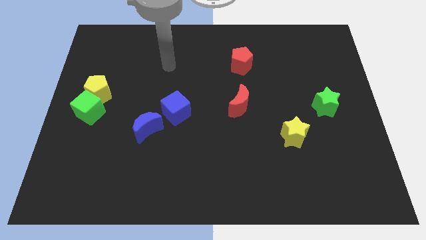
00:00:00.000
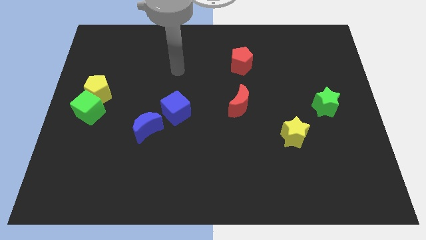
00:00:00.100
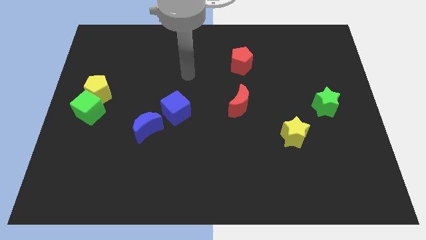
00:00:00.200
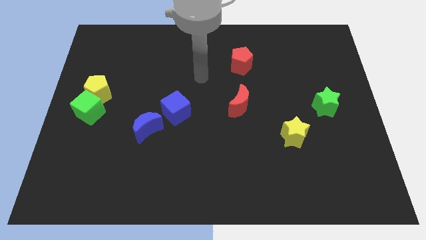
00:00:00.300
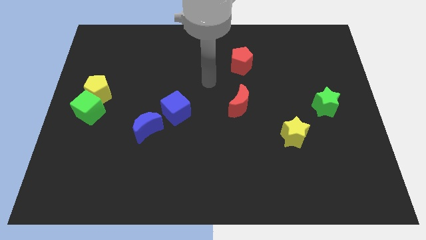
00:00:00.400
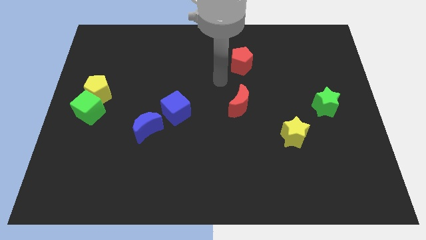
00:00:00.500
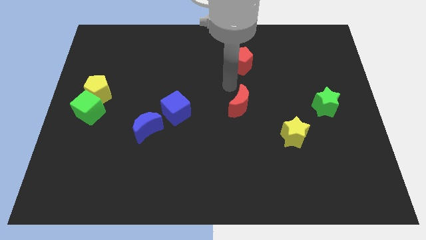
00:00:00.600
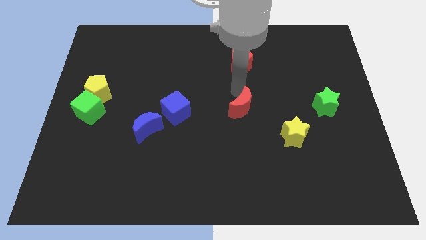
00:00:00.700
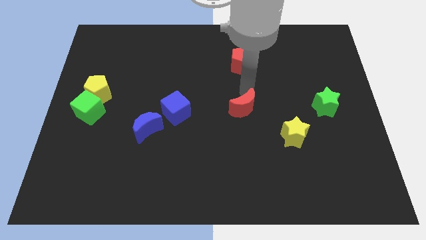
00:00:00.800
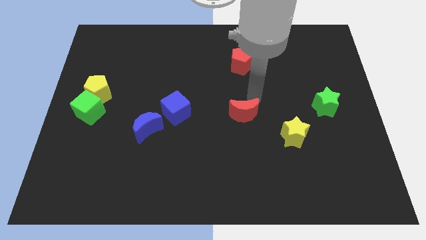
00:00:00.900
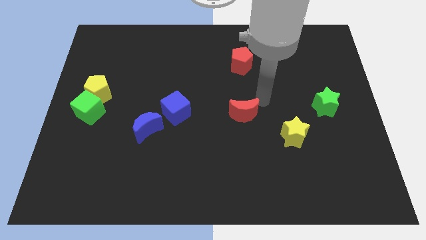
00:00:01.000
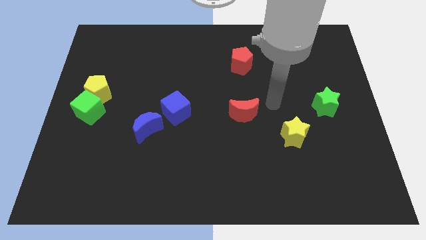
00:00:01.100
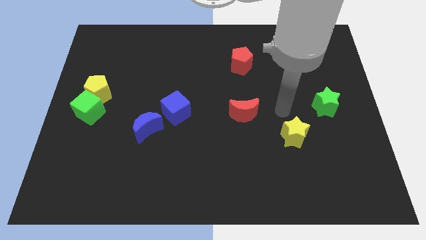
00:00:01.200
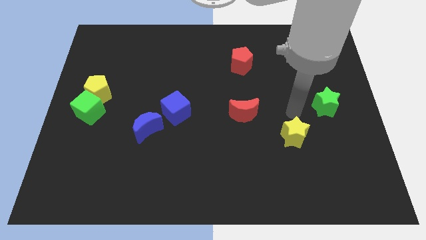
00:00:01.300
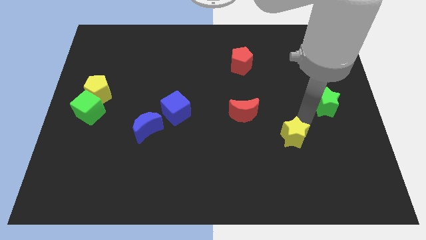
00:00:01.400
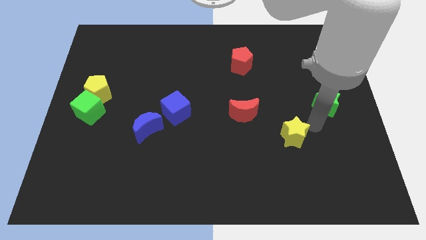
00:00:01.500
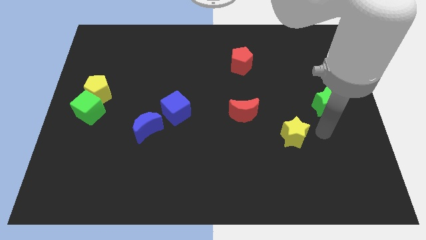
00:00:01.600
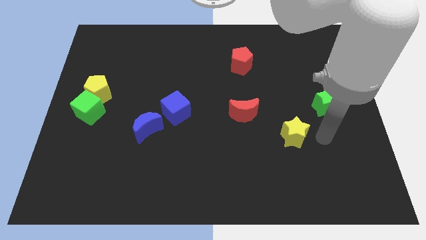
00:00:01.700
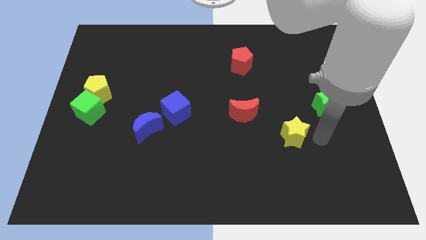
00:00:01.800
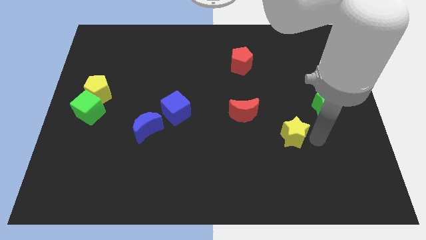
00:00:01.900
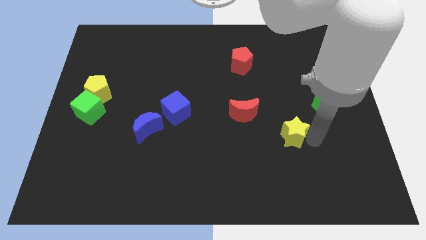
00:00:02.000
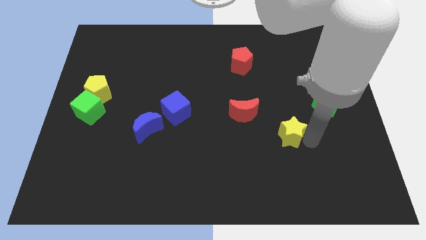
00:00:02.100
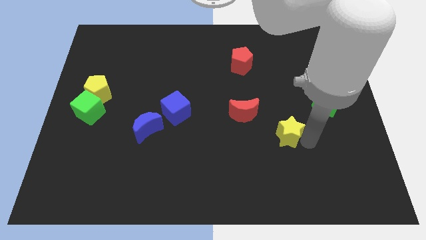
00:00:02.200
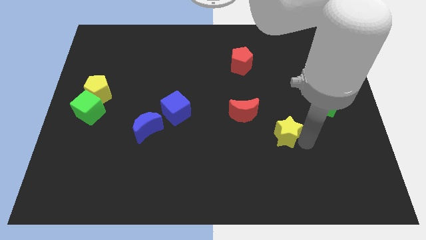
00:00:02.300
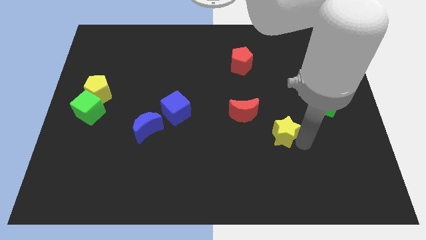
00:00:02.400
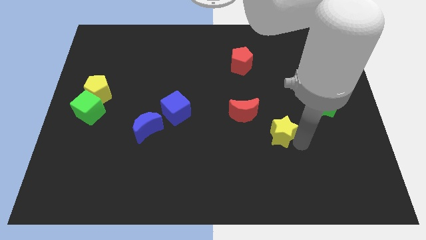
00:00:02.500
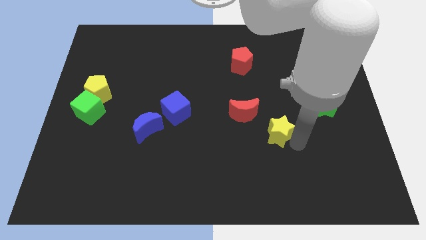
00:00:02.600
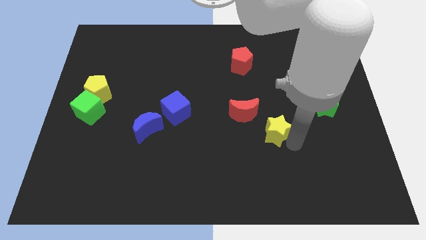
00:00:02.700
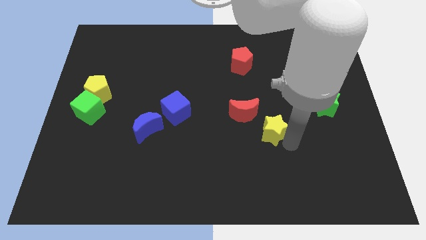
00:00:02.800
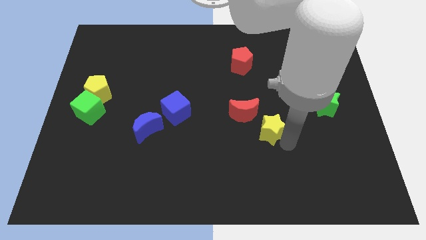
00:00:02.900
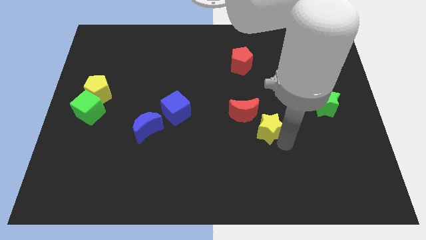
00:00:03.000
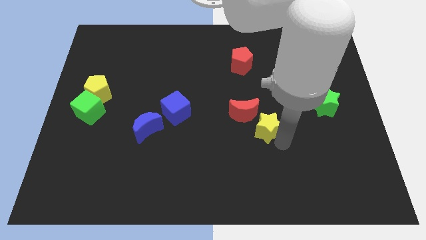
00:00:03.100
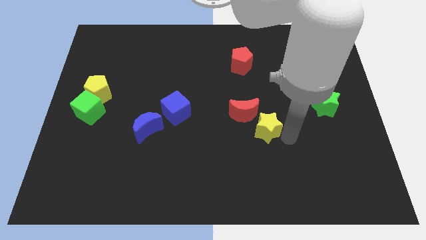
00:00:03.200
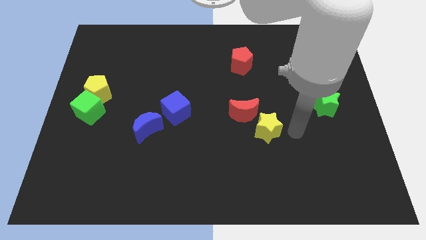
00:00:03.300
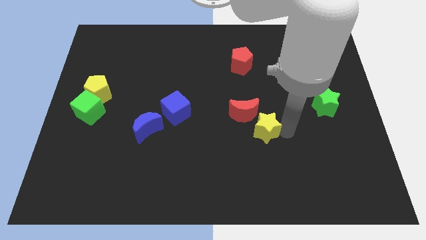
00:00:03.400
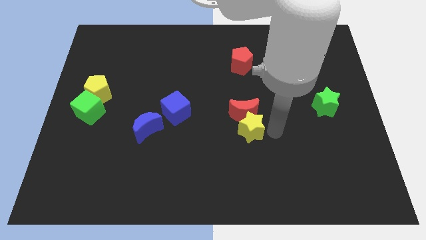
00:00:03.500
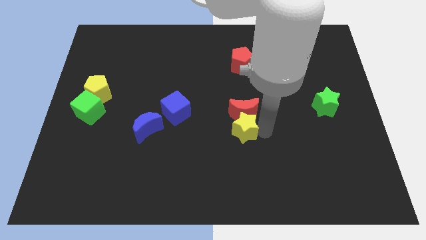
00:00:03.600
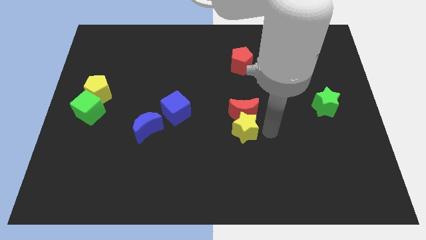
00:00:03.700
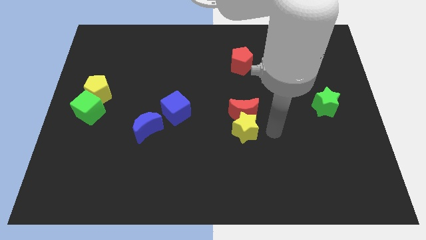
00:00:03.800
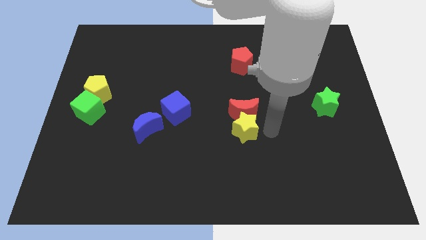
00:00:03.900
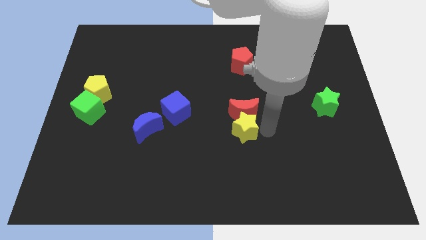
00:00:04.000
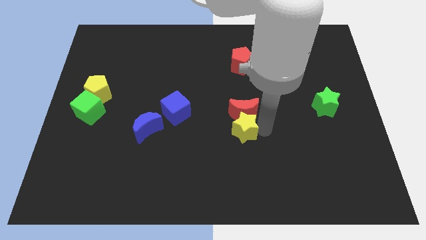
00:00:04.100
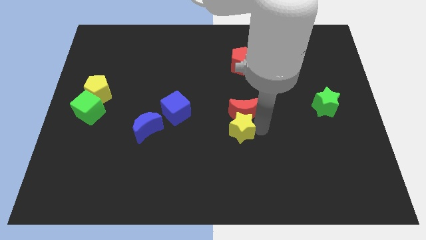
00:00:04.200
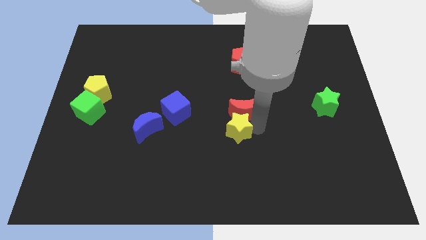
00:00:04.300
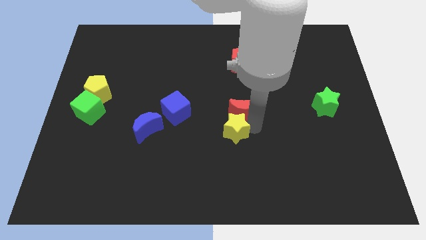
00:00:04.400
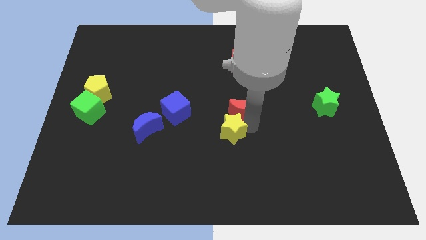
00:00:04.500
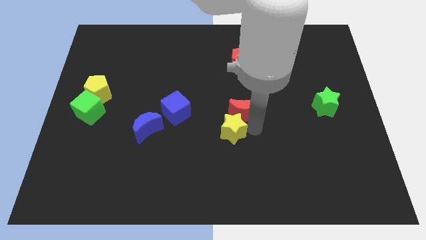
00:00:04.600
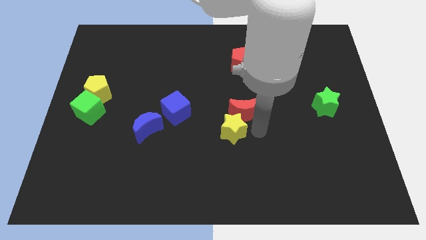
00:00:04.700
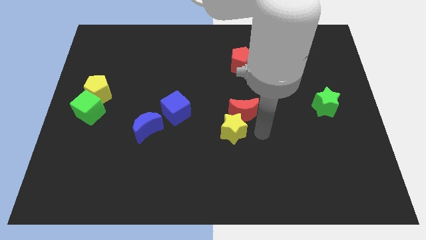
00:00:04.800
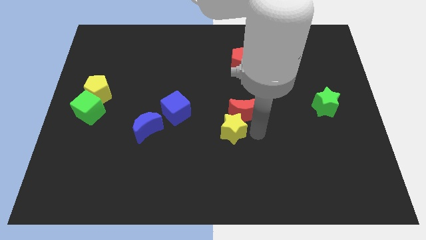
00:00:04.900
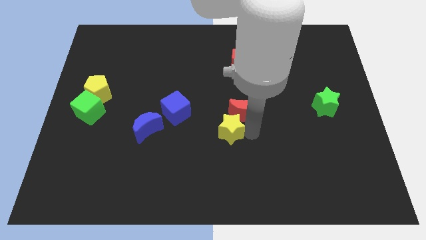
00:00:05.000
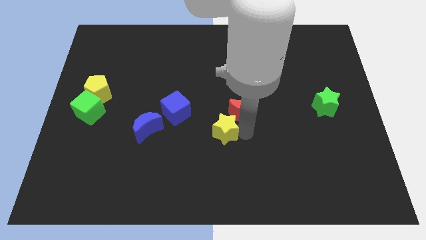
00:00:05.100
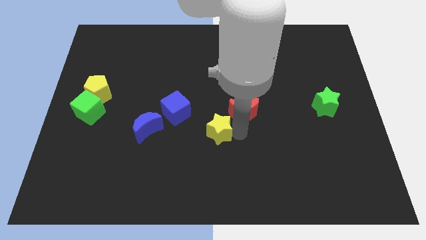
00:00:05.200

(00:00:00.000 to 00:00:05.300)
put the yellow star right of the blue moon

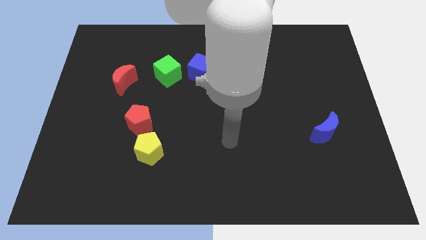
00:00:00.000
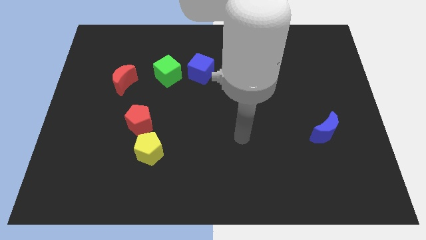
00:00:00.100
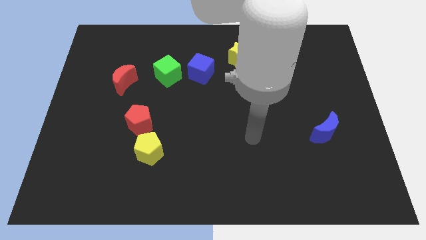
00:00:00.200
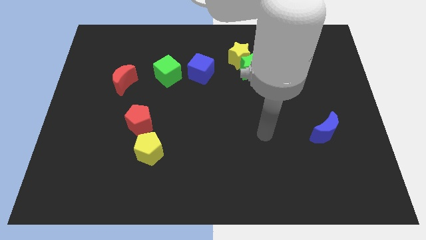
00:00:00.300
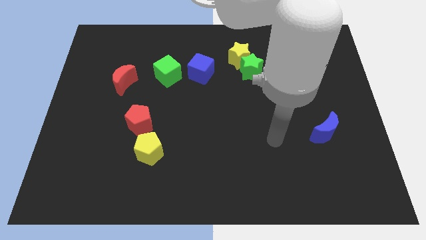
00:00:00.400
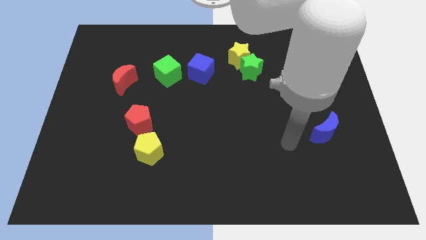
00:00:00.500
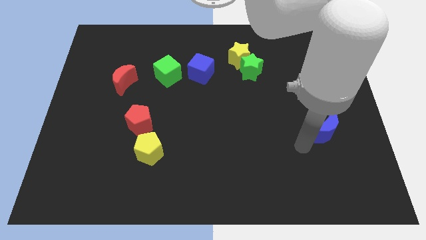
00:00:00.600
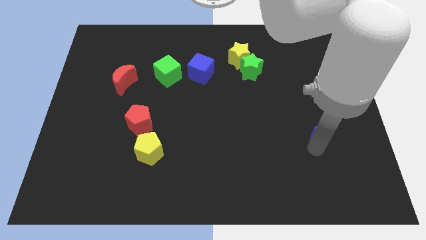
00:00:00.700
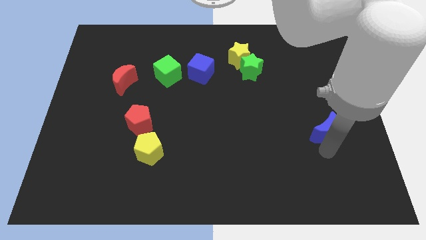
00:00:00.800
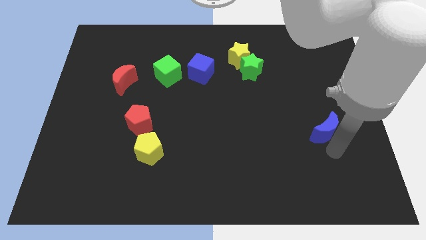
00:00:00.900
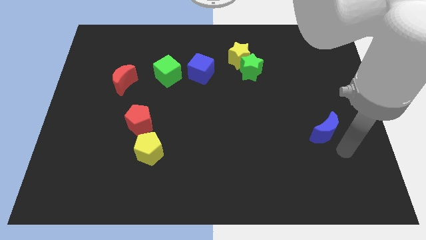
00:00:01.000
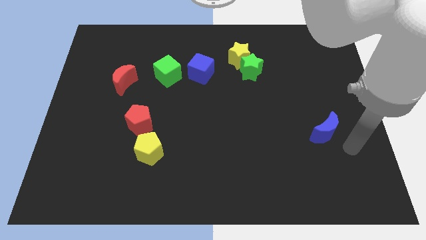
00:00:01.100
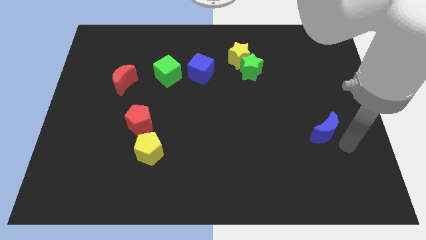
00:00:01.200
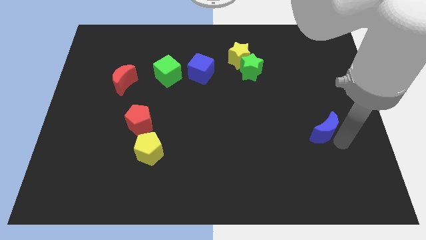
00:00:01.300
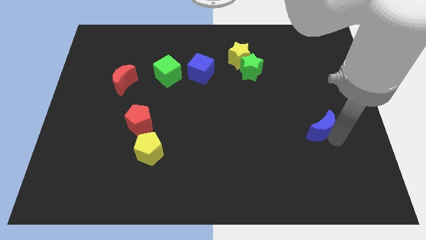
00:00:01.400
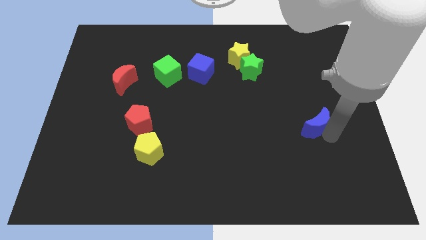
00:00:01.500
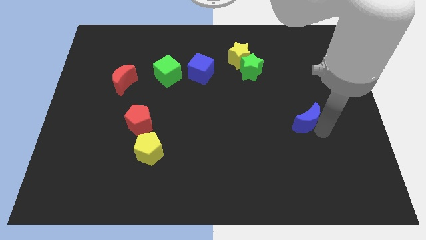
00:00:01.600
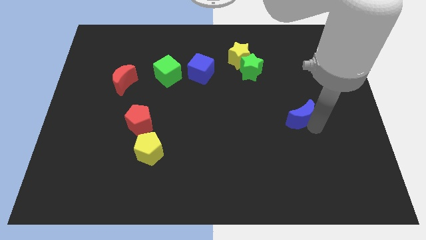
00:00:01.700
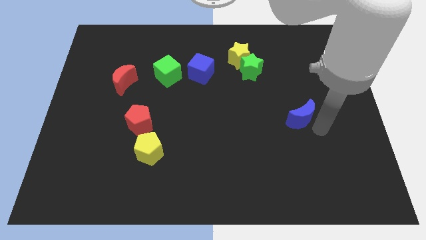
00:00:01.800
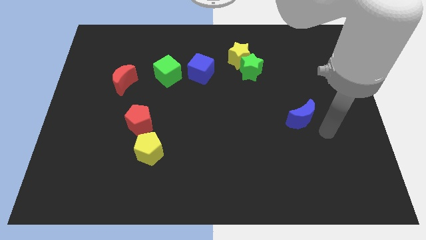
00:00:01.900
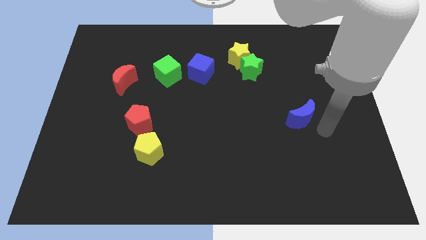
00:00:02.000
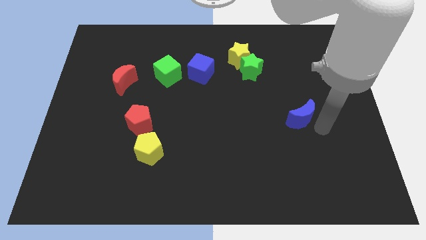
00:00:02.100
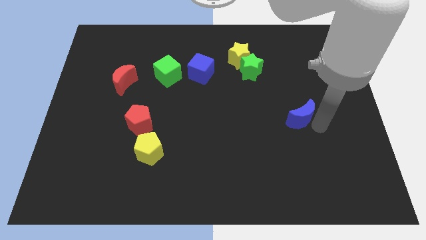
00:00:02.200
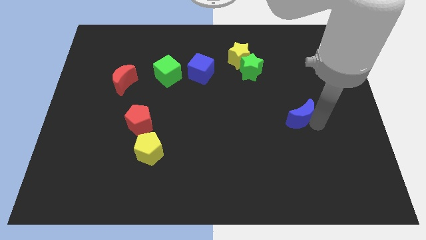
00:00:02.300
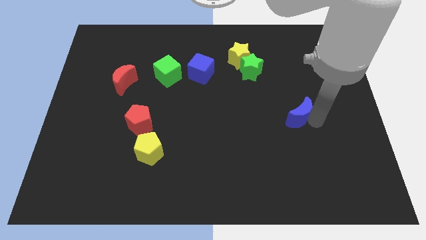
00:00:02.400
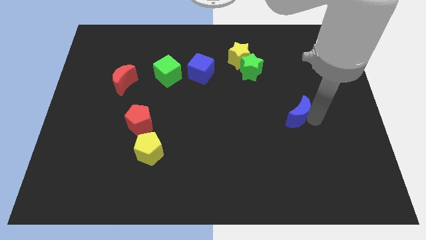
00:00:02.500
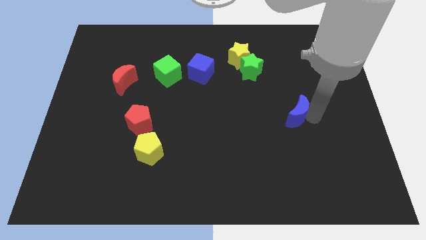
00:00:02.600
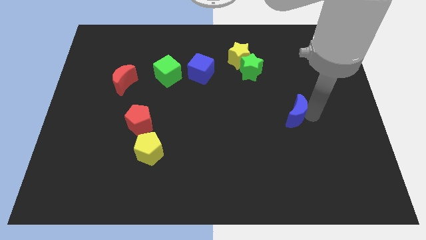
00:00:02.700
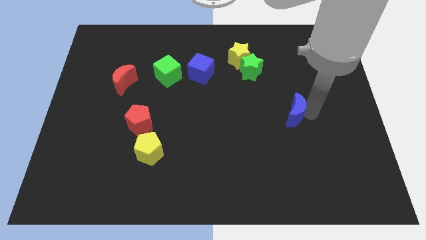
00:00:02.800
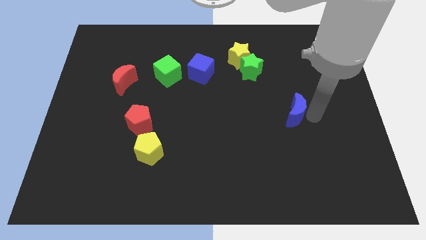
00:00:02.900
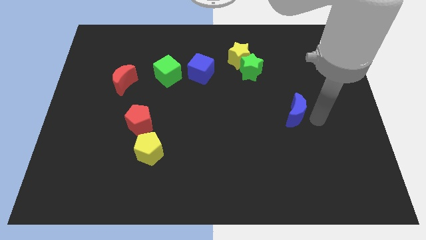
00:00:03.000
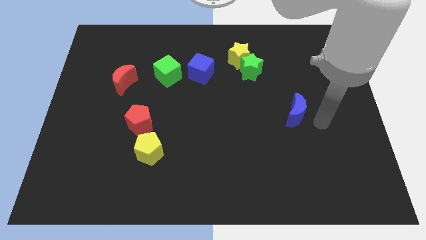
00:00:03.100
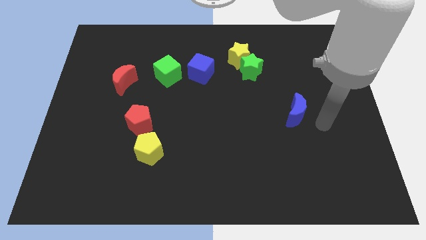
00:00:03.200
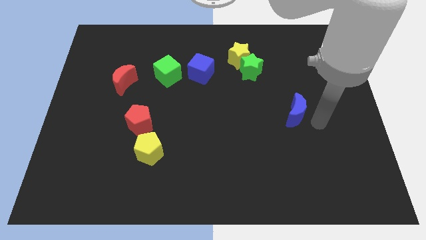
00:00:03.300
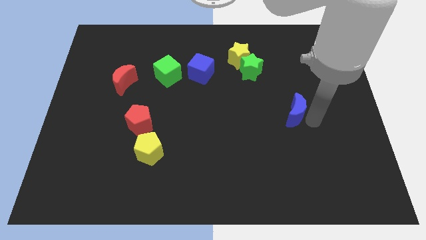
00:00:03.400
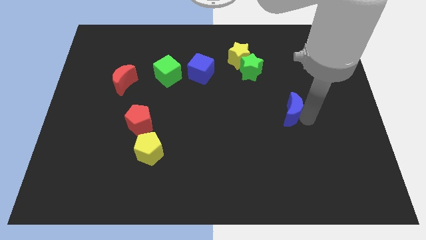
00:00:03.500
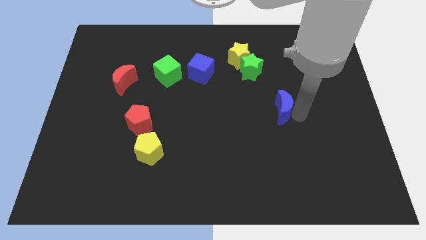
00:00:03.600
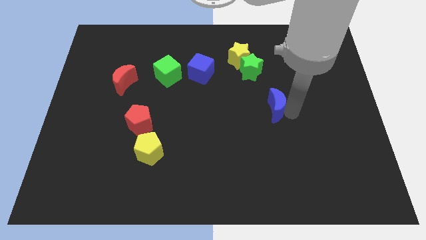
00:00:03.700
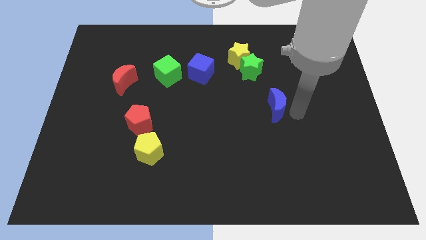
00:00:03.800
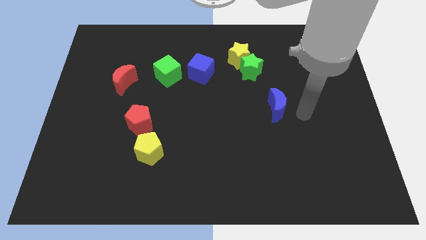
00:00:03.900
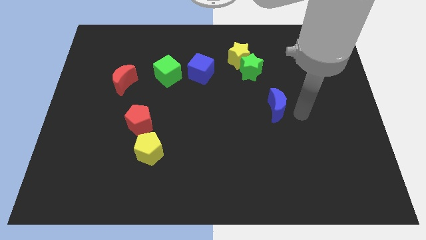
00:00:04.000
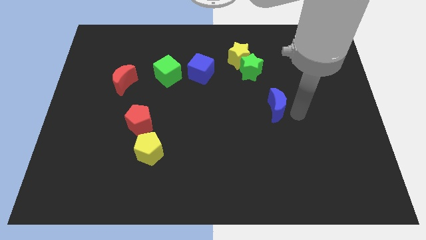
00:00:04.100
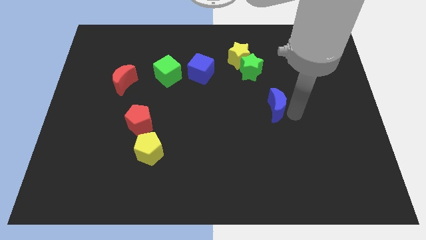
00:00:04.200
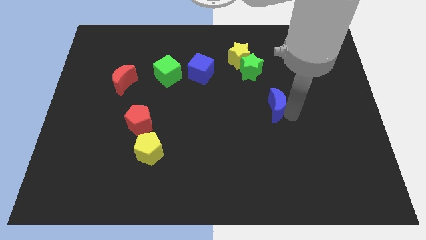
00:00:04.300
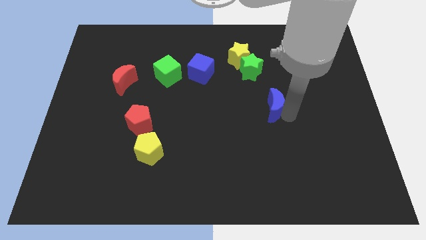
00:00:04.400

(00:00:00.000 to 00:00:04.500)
put the blue moon to the bottom of the green star
